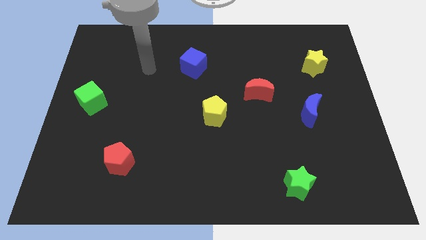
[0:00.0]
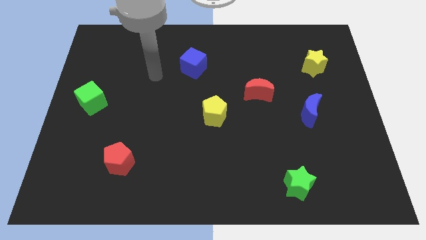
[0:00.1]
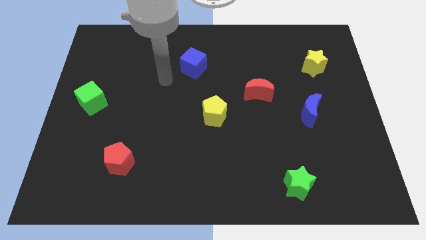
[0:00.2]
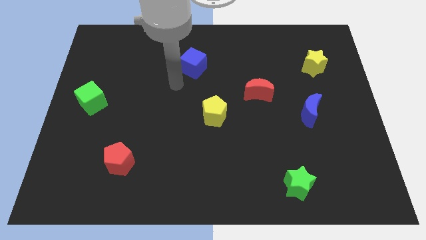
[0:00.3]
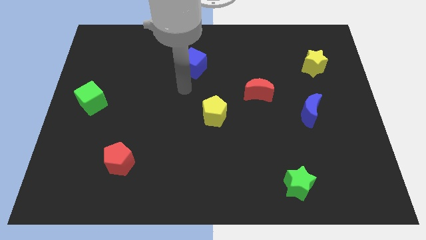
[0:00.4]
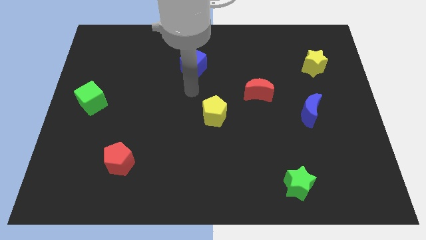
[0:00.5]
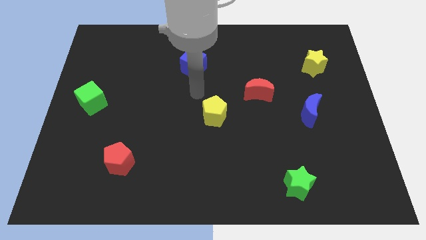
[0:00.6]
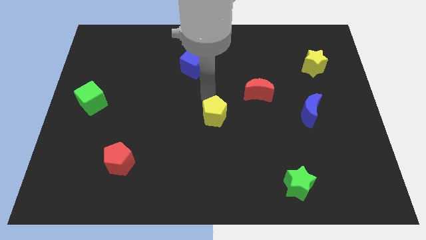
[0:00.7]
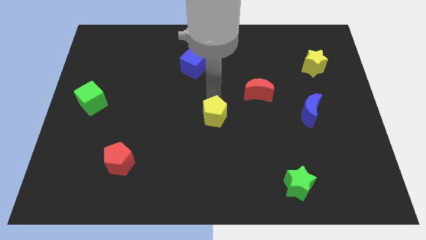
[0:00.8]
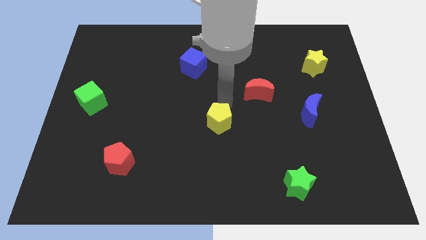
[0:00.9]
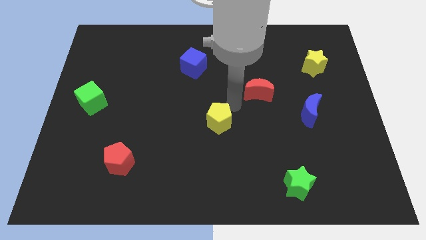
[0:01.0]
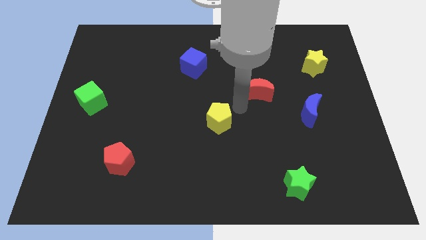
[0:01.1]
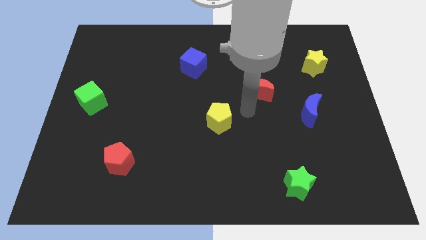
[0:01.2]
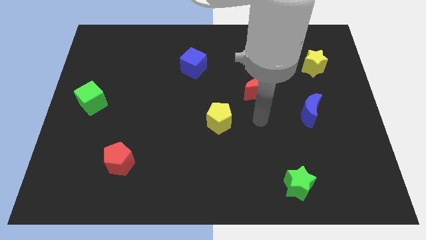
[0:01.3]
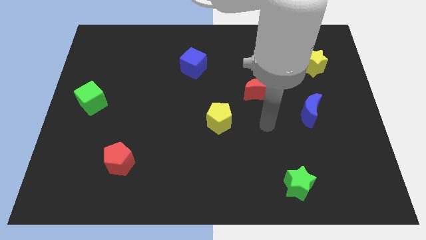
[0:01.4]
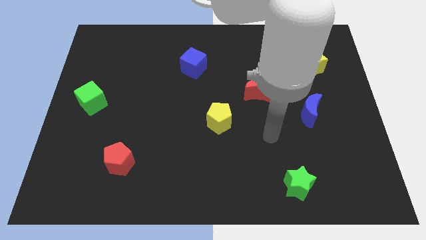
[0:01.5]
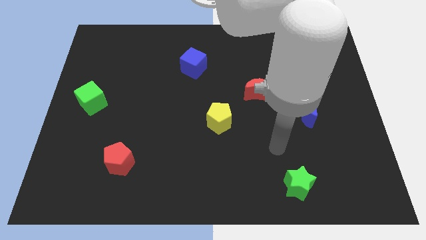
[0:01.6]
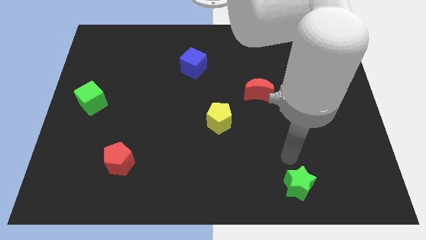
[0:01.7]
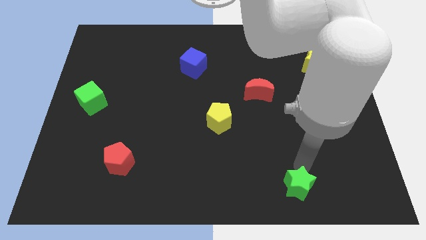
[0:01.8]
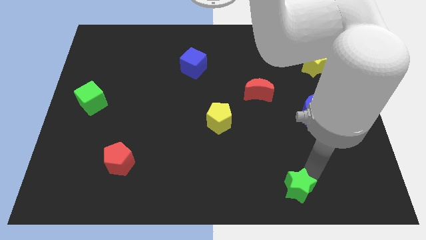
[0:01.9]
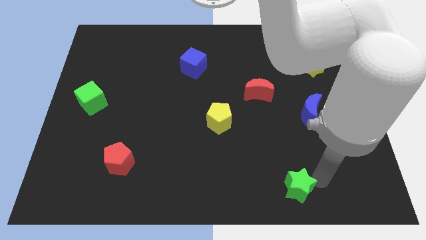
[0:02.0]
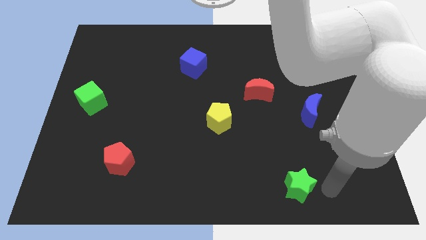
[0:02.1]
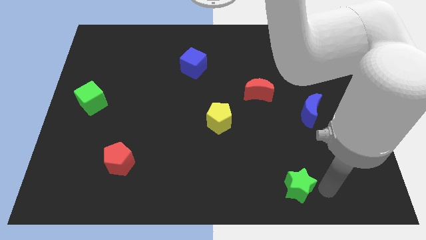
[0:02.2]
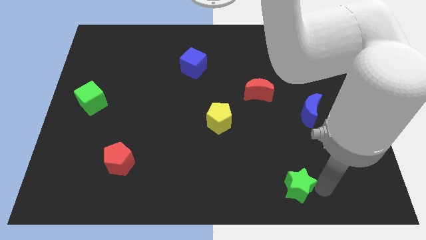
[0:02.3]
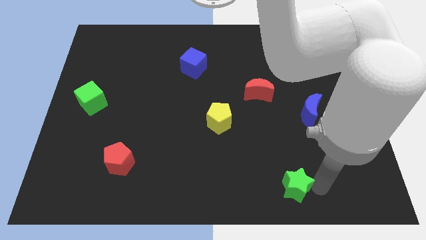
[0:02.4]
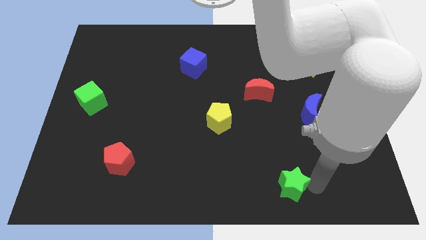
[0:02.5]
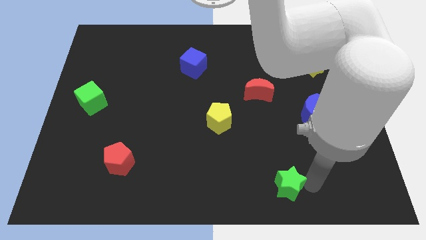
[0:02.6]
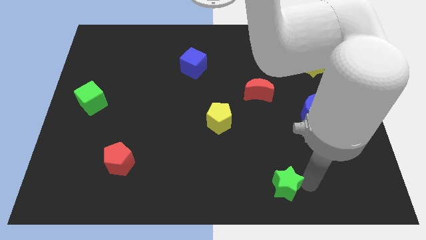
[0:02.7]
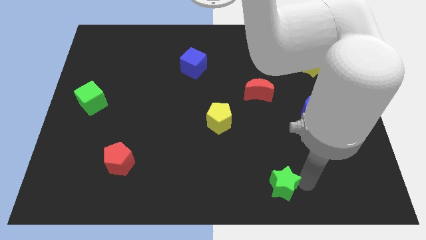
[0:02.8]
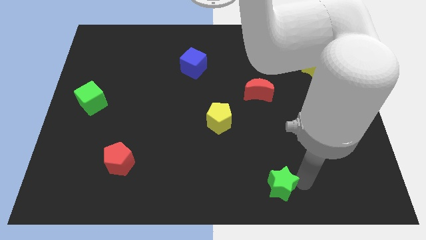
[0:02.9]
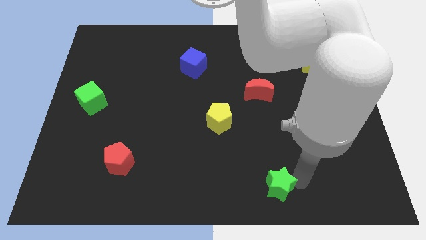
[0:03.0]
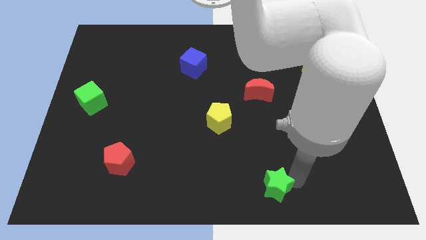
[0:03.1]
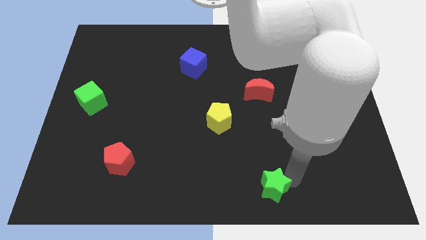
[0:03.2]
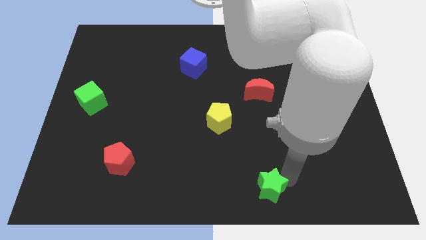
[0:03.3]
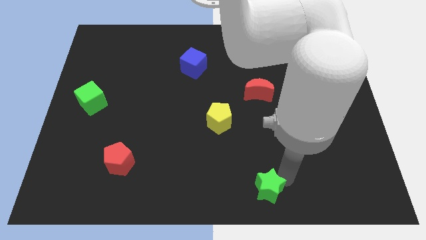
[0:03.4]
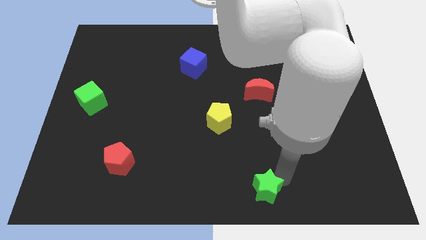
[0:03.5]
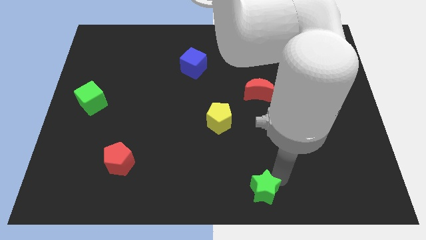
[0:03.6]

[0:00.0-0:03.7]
move the green star to the left a little bit

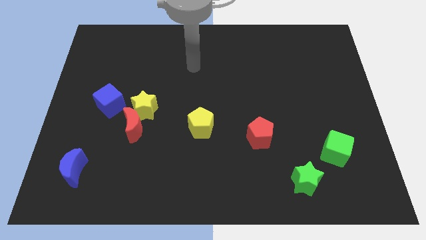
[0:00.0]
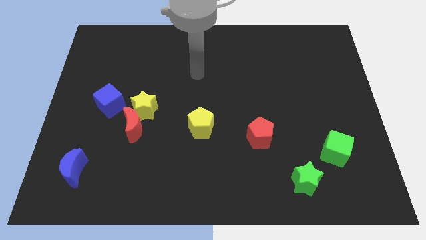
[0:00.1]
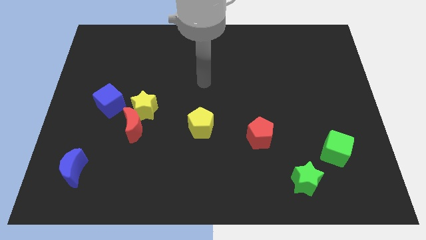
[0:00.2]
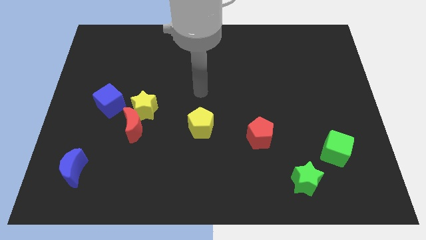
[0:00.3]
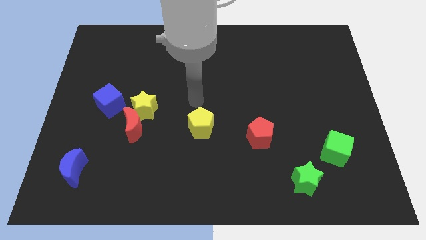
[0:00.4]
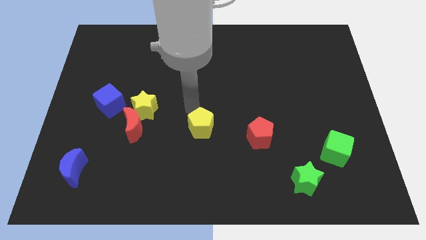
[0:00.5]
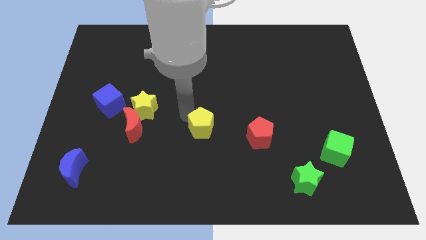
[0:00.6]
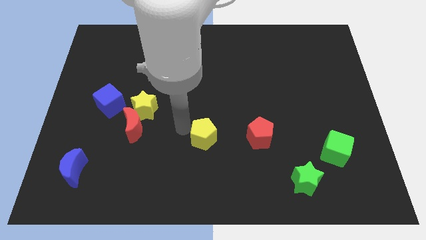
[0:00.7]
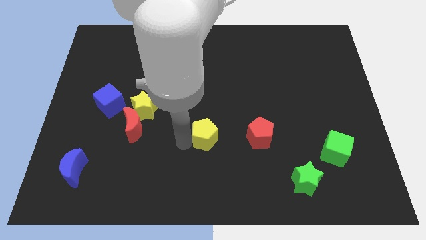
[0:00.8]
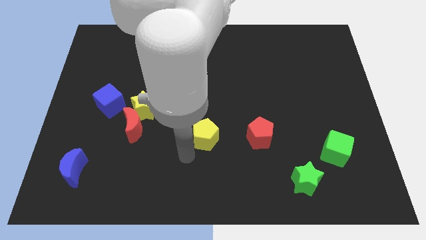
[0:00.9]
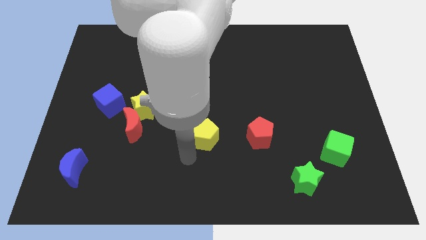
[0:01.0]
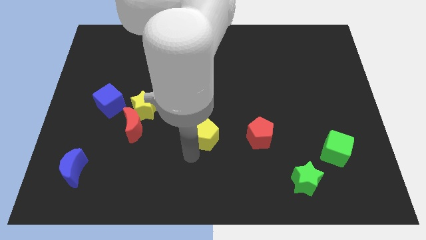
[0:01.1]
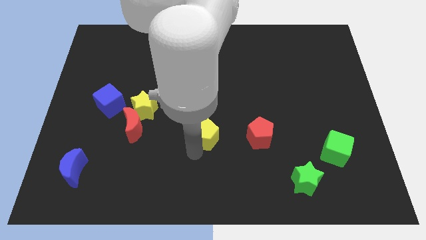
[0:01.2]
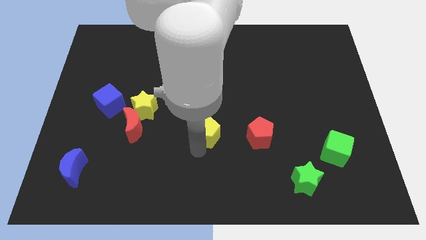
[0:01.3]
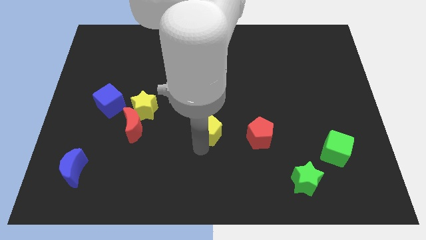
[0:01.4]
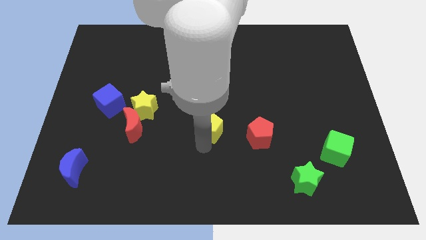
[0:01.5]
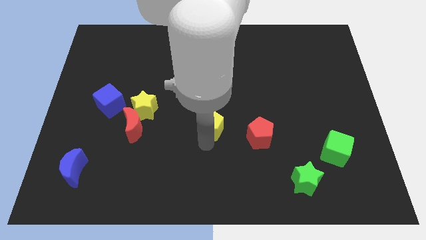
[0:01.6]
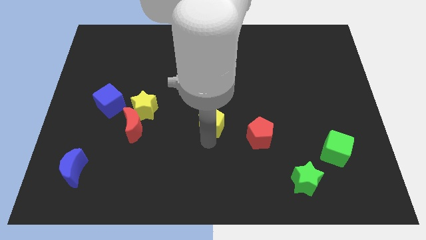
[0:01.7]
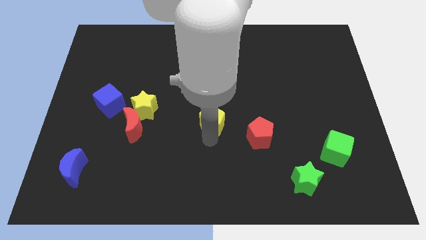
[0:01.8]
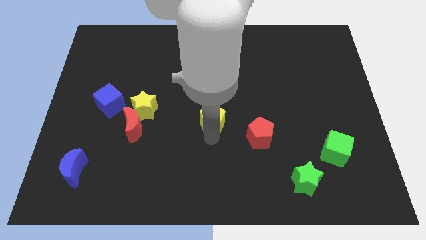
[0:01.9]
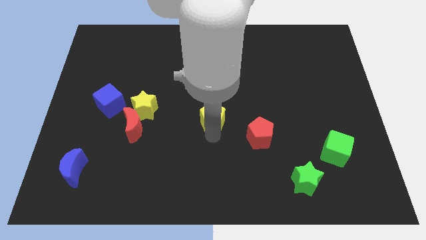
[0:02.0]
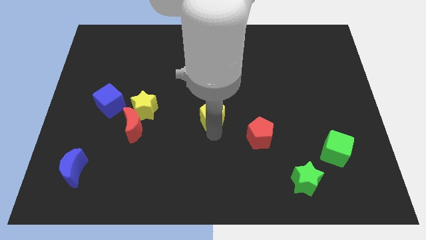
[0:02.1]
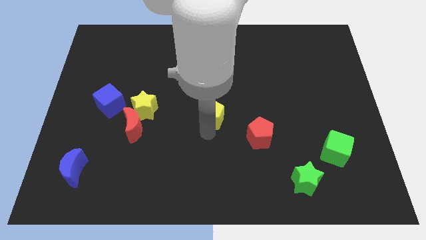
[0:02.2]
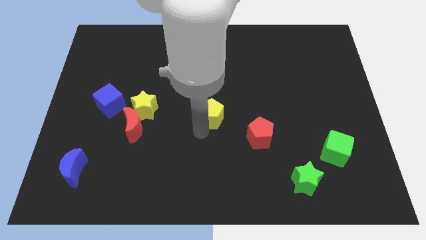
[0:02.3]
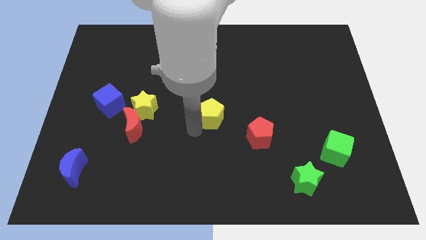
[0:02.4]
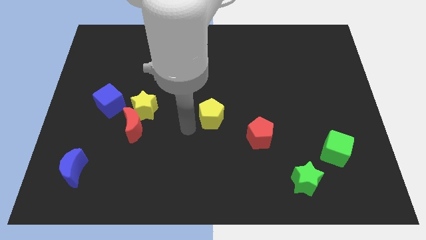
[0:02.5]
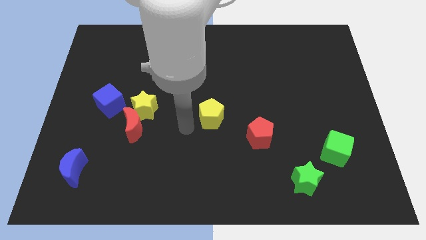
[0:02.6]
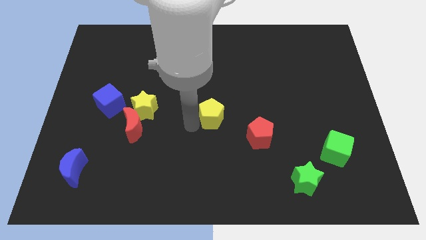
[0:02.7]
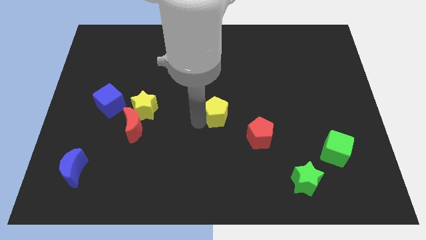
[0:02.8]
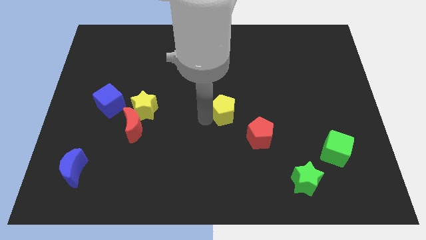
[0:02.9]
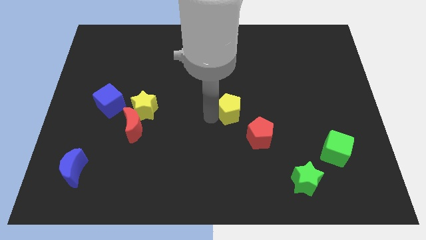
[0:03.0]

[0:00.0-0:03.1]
move the yellow pentagon up and to the right a bit

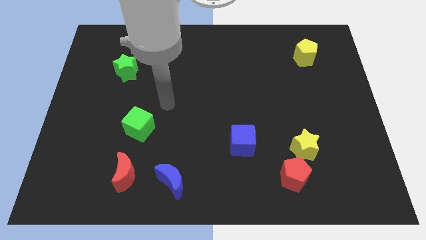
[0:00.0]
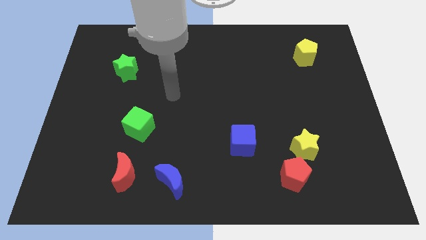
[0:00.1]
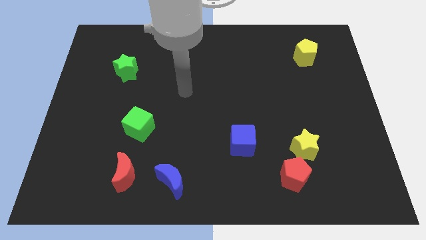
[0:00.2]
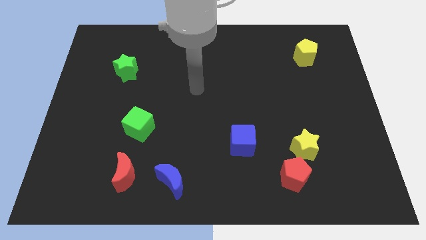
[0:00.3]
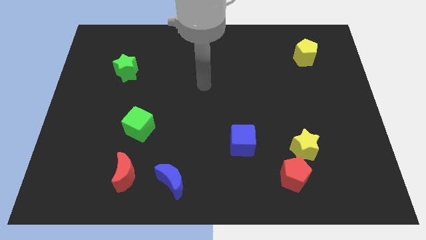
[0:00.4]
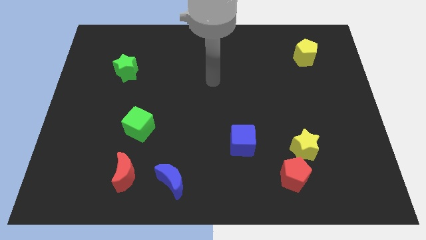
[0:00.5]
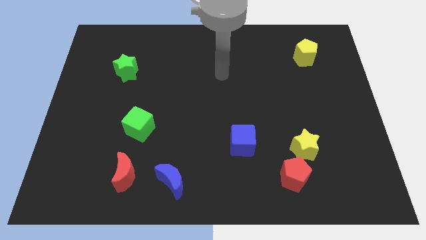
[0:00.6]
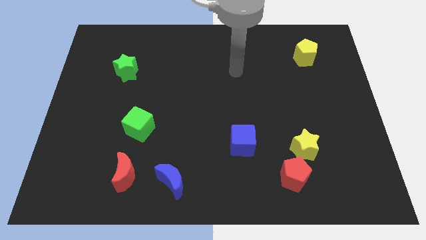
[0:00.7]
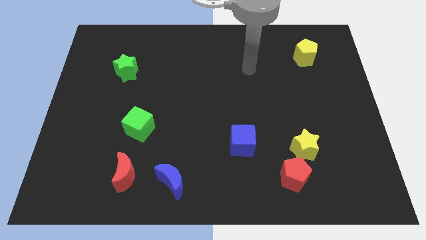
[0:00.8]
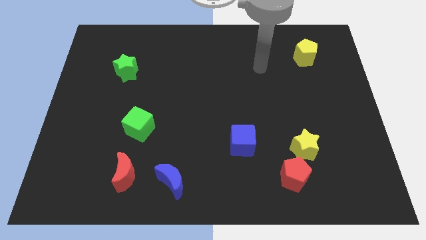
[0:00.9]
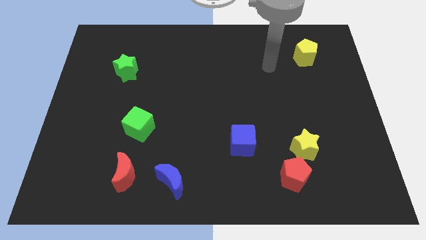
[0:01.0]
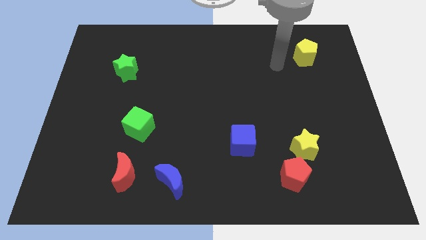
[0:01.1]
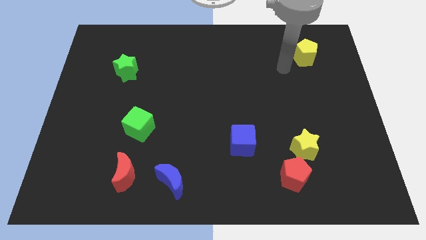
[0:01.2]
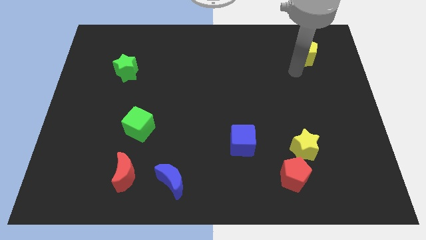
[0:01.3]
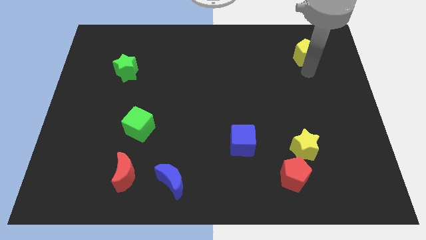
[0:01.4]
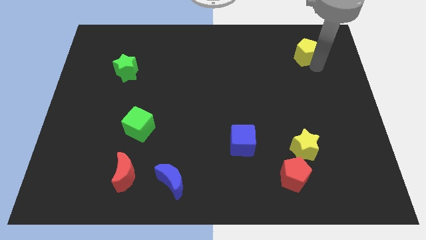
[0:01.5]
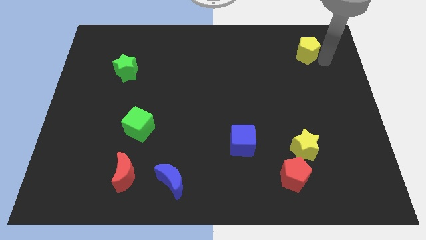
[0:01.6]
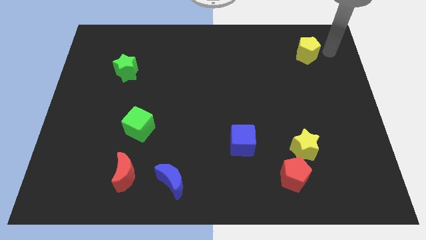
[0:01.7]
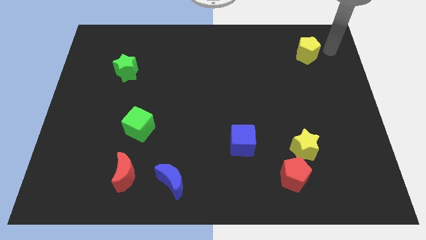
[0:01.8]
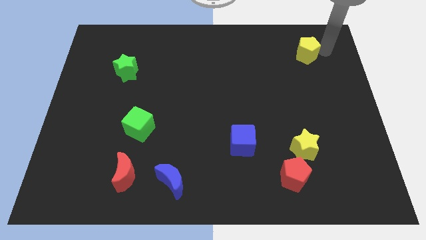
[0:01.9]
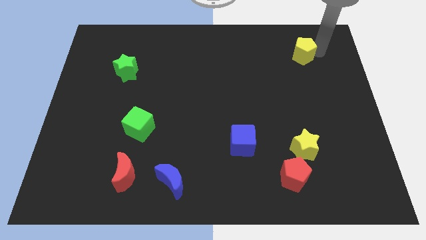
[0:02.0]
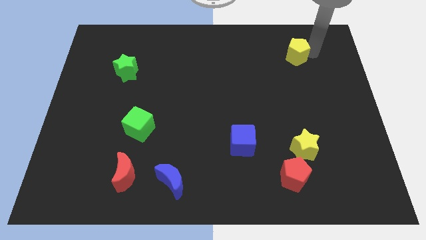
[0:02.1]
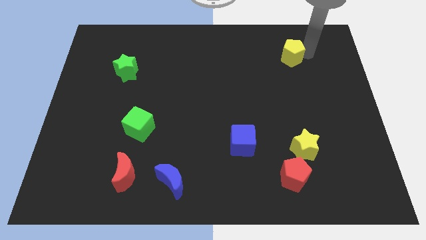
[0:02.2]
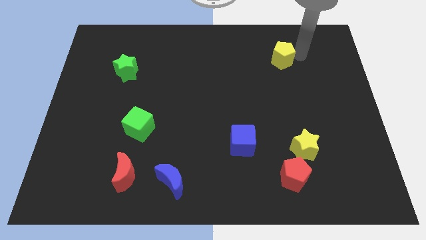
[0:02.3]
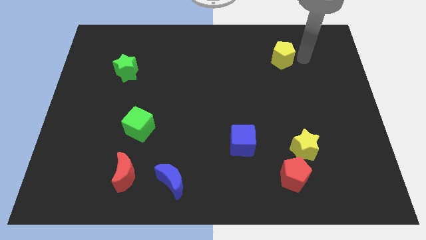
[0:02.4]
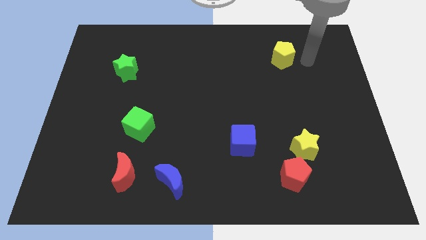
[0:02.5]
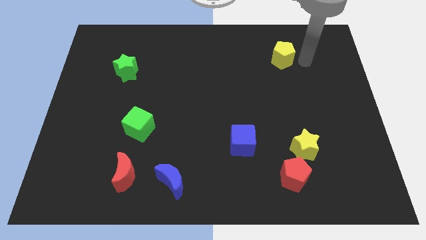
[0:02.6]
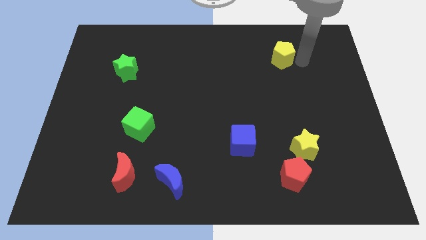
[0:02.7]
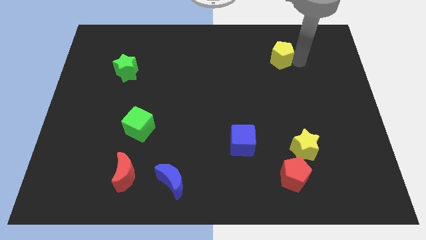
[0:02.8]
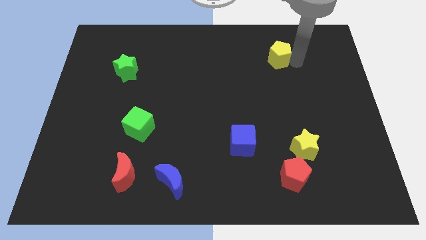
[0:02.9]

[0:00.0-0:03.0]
slightly move the yellow pentagon left
